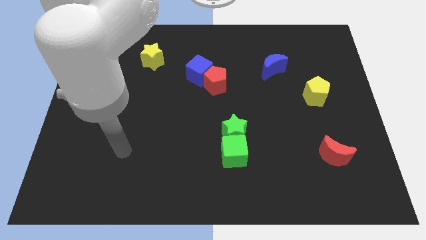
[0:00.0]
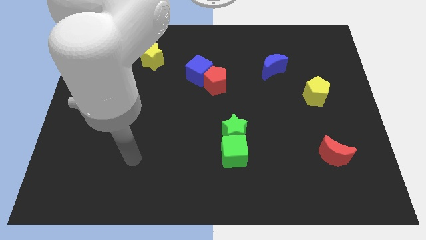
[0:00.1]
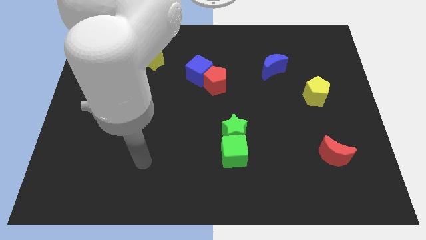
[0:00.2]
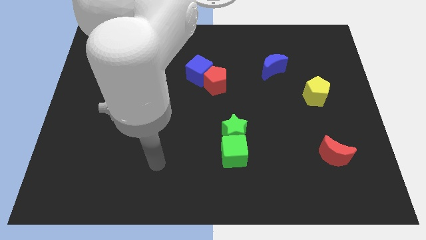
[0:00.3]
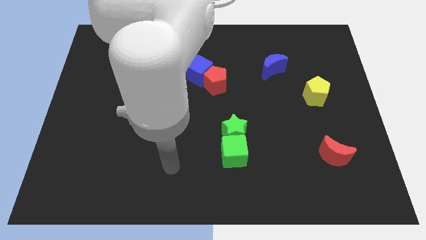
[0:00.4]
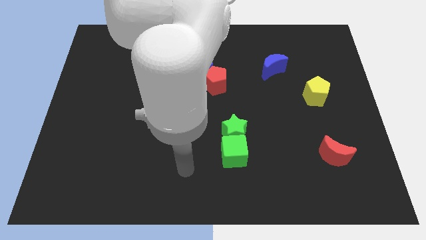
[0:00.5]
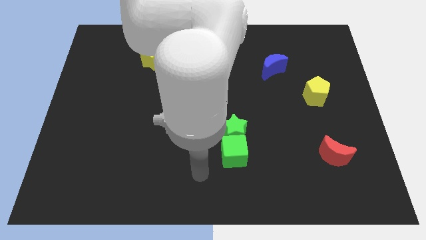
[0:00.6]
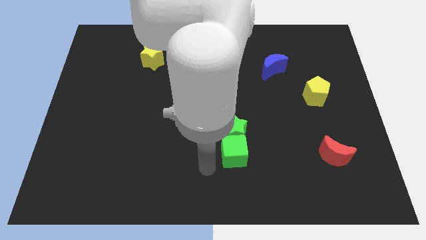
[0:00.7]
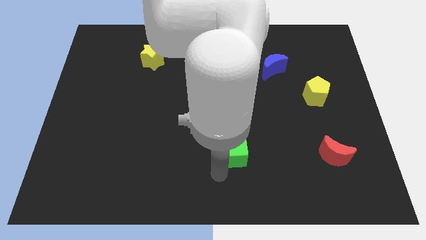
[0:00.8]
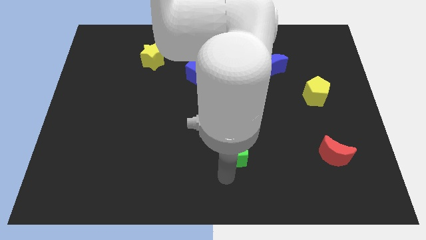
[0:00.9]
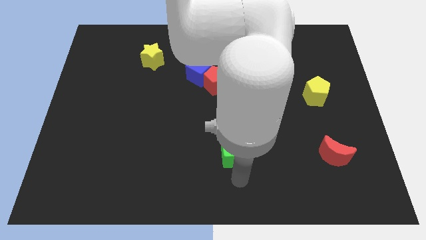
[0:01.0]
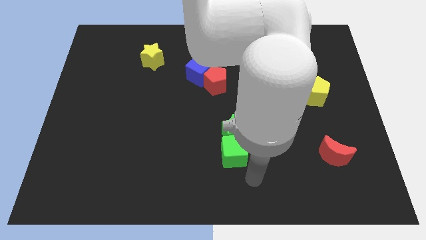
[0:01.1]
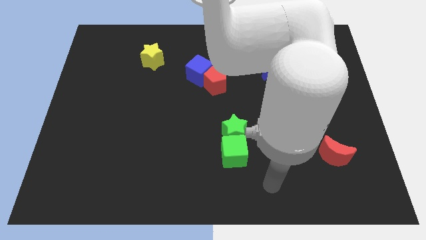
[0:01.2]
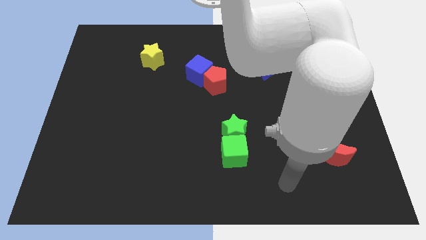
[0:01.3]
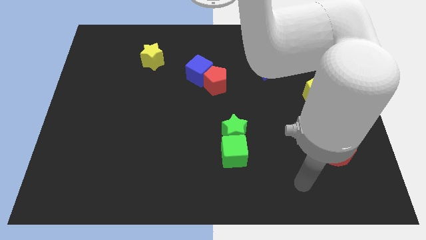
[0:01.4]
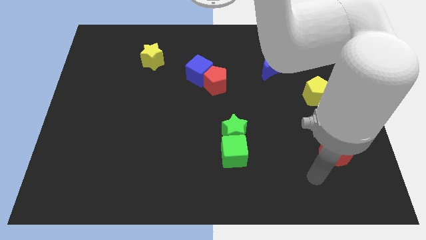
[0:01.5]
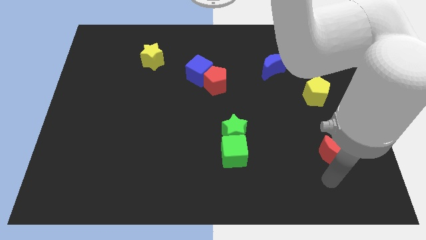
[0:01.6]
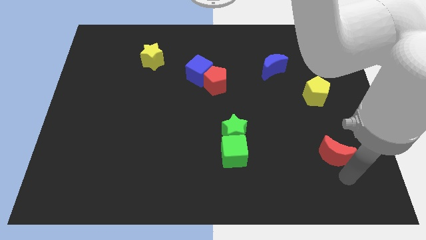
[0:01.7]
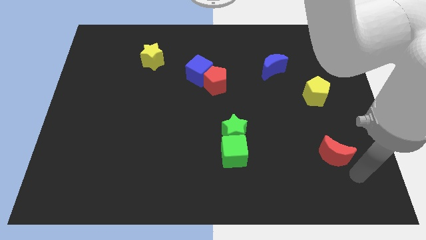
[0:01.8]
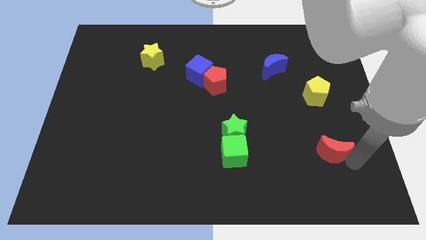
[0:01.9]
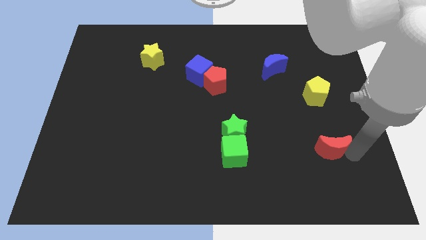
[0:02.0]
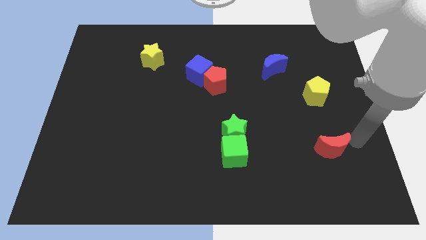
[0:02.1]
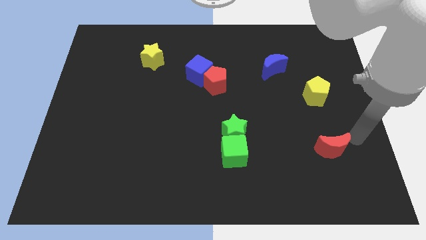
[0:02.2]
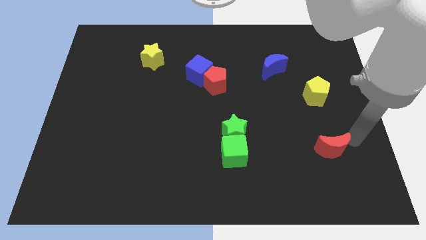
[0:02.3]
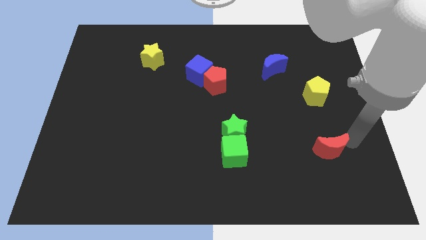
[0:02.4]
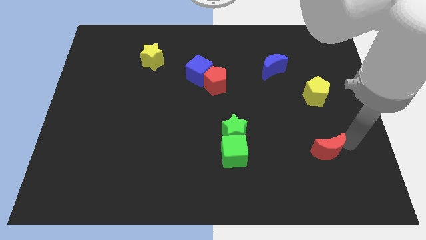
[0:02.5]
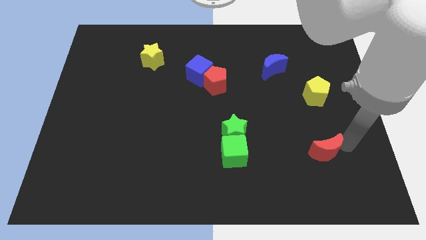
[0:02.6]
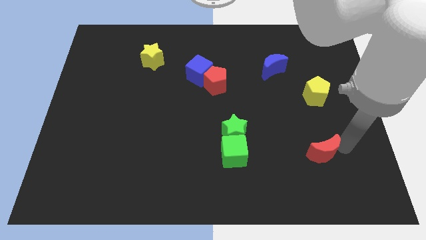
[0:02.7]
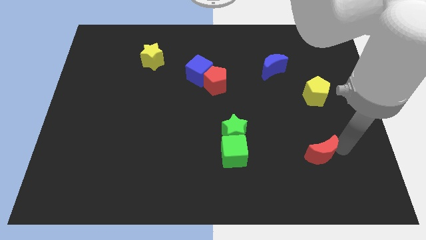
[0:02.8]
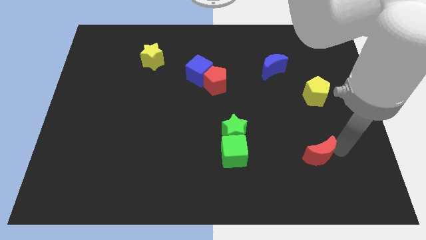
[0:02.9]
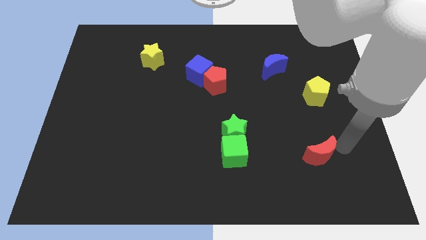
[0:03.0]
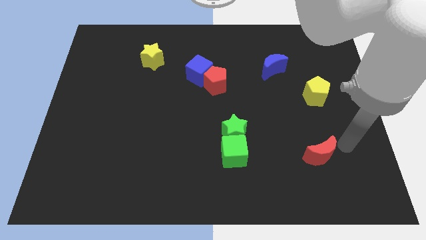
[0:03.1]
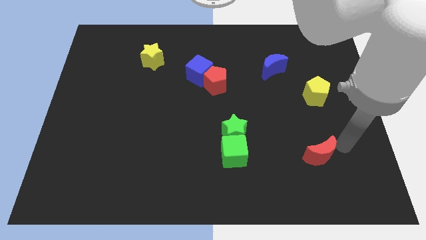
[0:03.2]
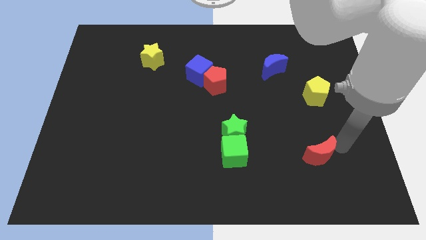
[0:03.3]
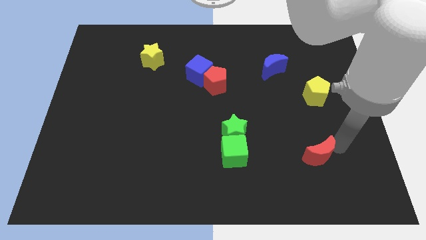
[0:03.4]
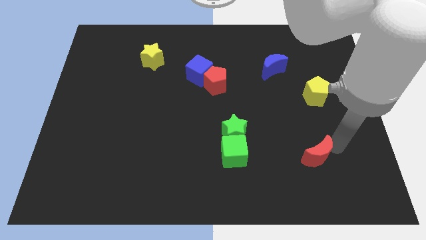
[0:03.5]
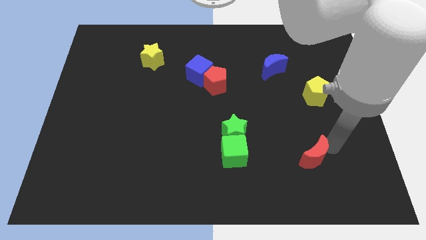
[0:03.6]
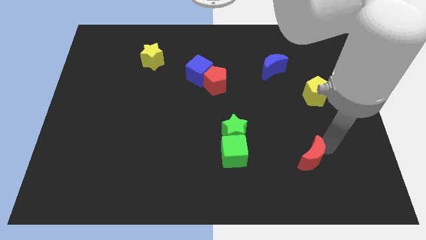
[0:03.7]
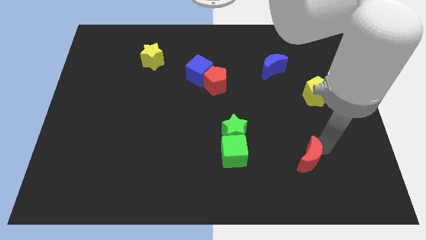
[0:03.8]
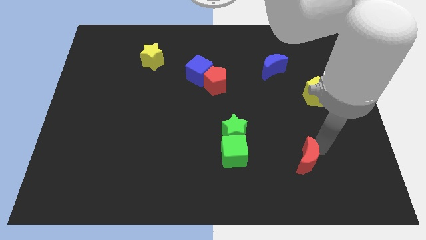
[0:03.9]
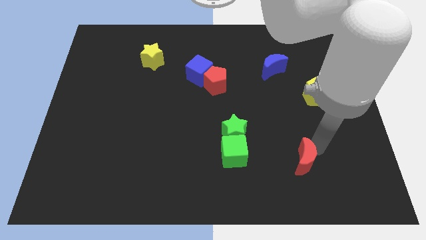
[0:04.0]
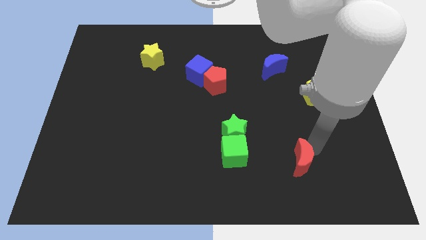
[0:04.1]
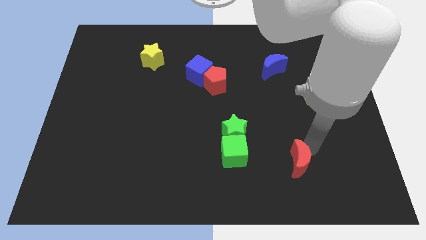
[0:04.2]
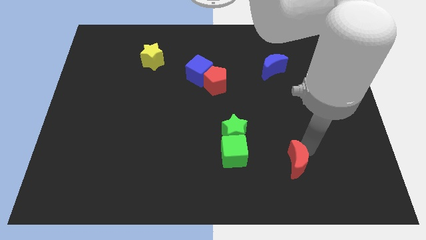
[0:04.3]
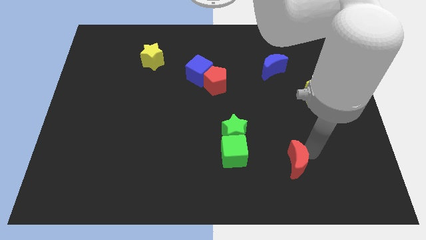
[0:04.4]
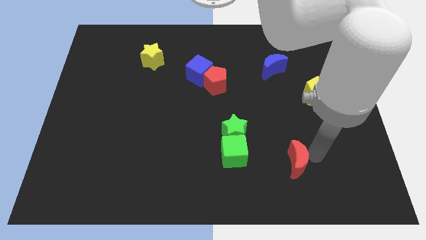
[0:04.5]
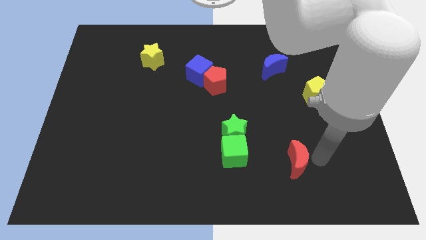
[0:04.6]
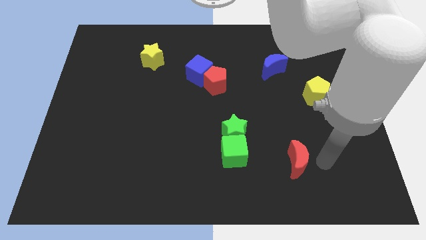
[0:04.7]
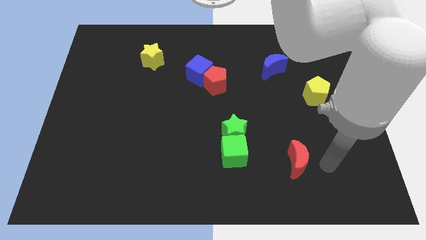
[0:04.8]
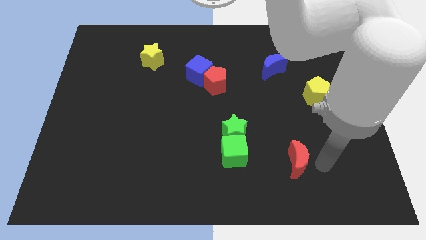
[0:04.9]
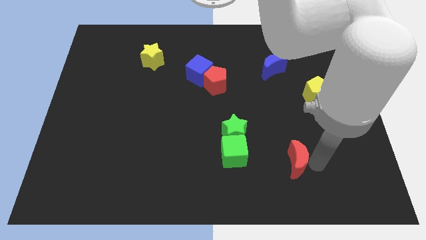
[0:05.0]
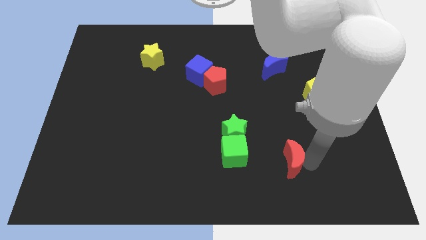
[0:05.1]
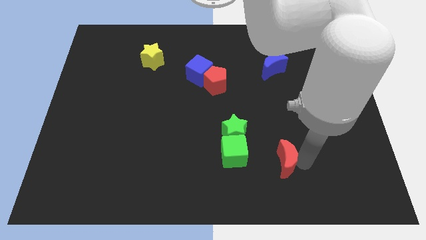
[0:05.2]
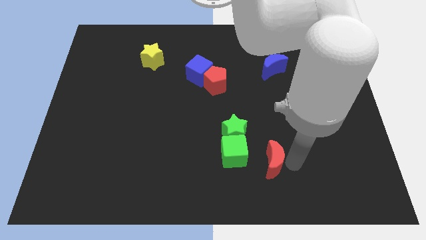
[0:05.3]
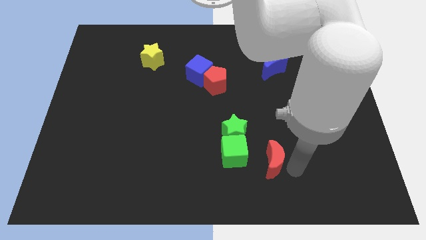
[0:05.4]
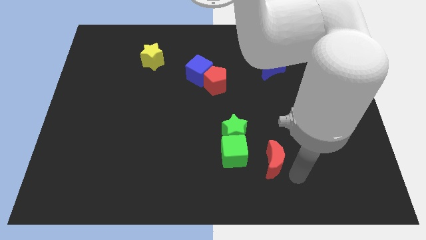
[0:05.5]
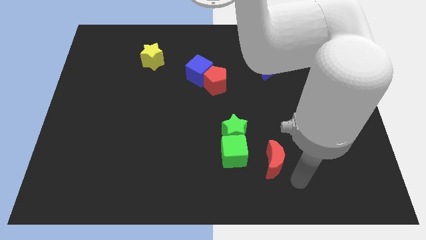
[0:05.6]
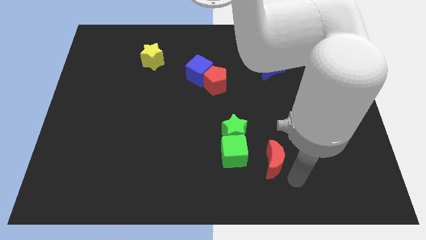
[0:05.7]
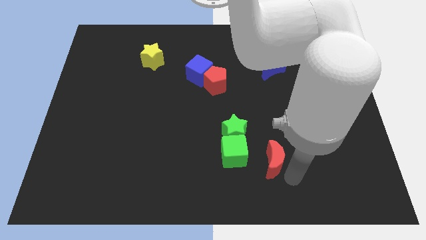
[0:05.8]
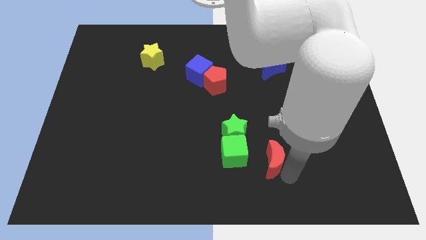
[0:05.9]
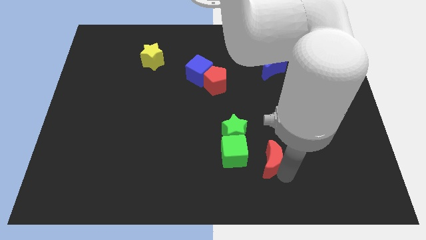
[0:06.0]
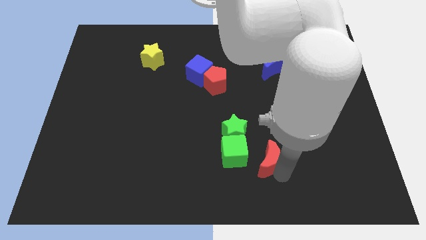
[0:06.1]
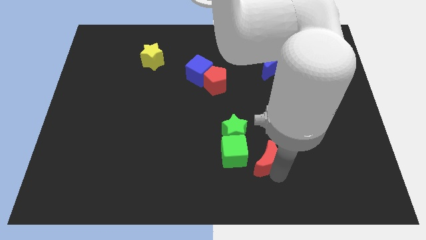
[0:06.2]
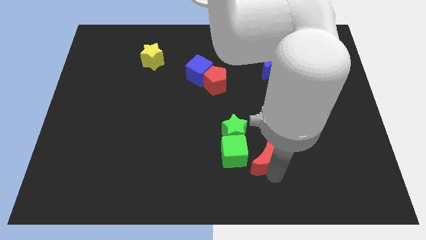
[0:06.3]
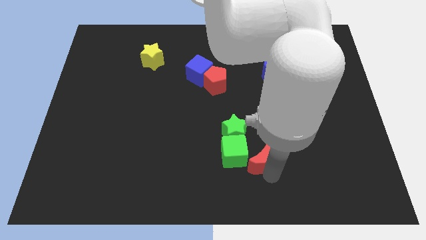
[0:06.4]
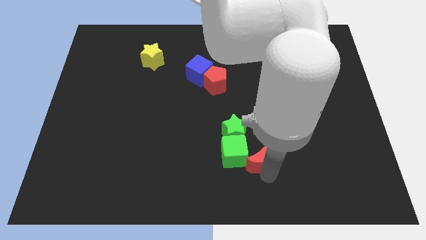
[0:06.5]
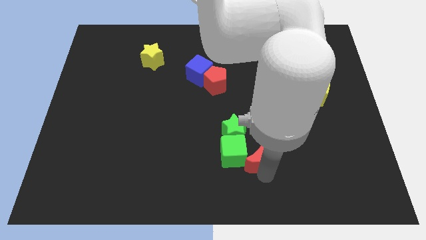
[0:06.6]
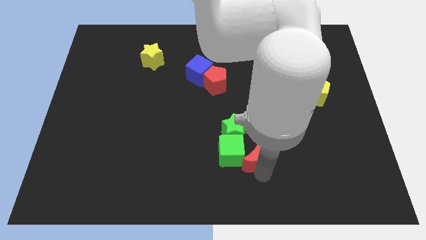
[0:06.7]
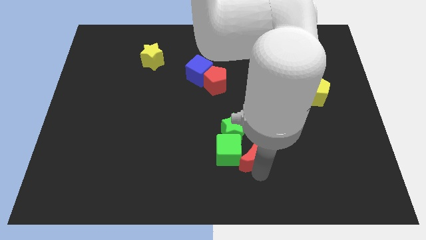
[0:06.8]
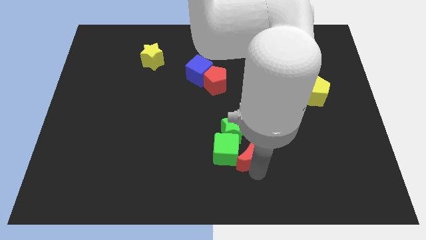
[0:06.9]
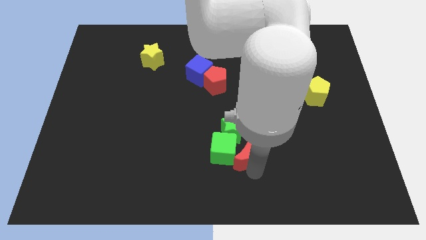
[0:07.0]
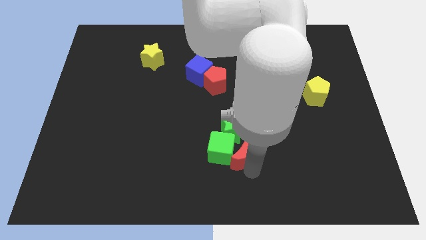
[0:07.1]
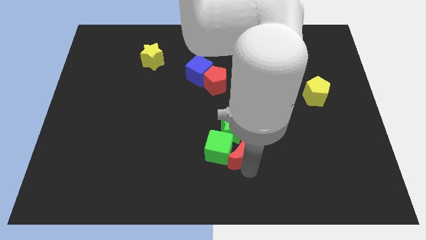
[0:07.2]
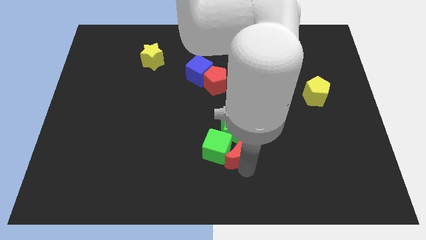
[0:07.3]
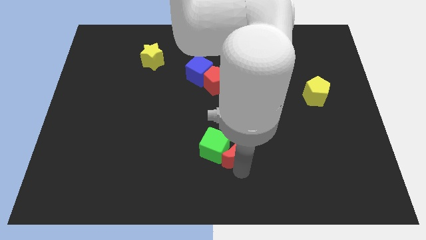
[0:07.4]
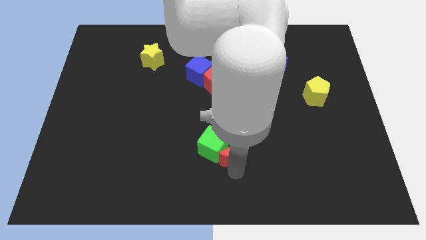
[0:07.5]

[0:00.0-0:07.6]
push the red moon to the green star
